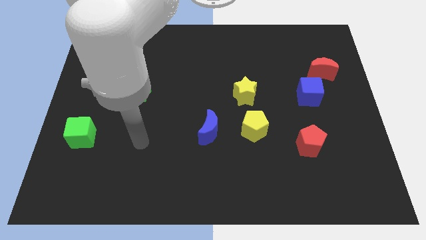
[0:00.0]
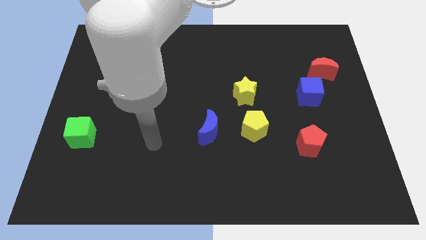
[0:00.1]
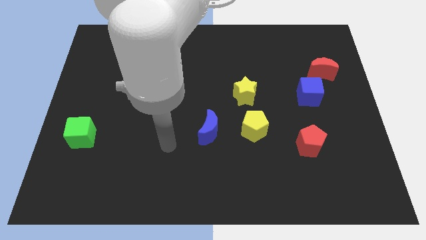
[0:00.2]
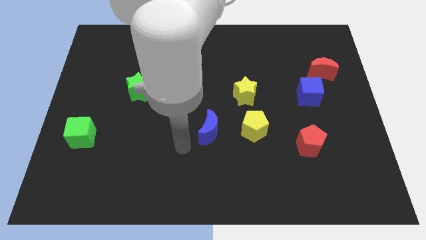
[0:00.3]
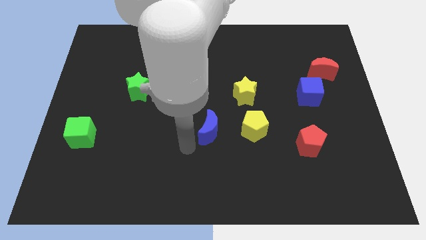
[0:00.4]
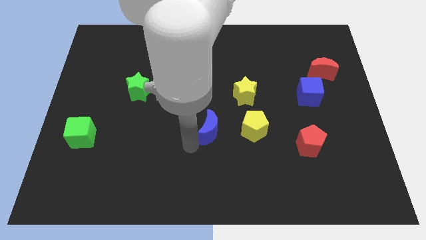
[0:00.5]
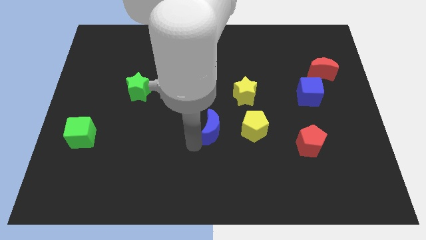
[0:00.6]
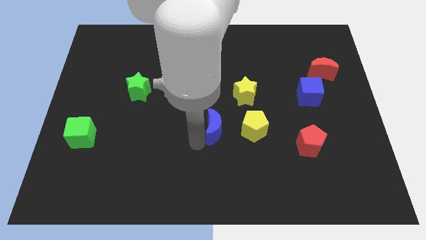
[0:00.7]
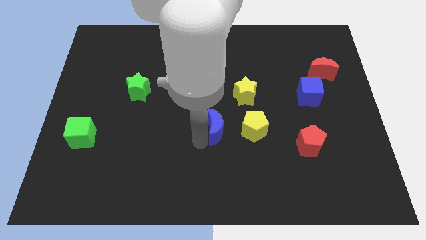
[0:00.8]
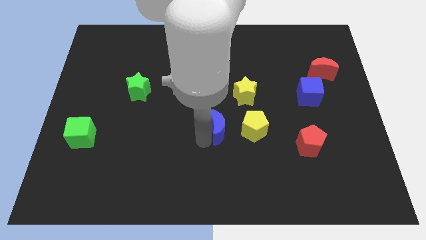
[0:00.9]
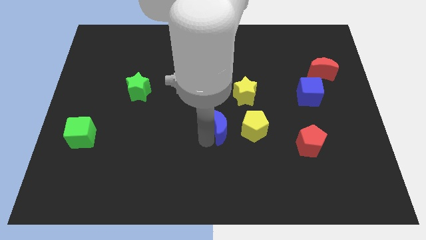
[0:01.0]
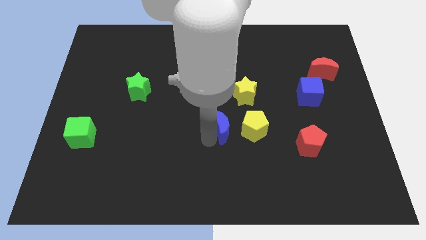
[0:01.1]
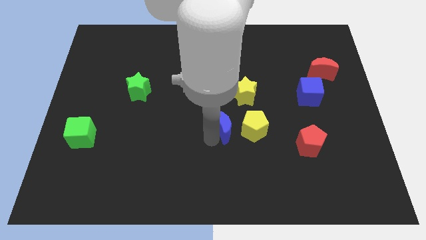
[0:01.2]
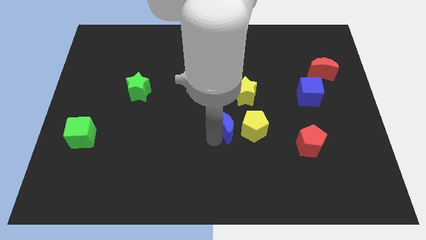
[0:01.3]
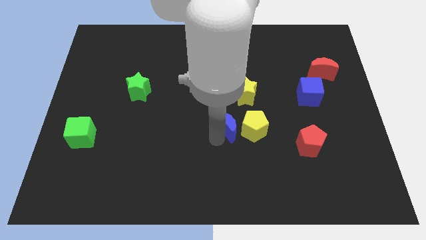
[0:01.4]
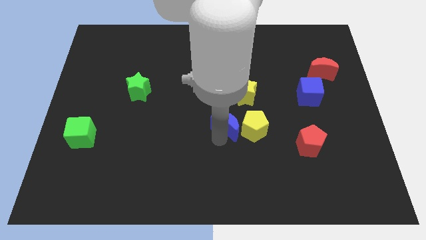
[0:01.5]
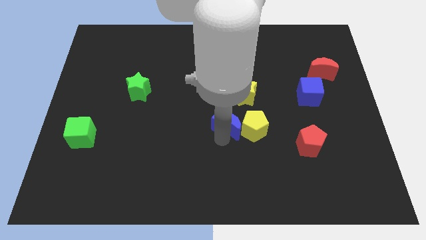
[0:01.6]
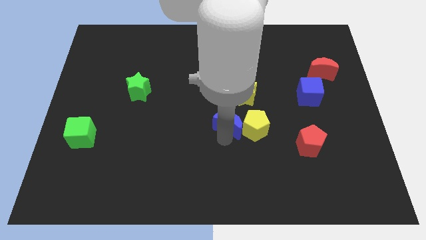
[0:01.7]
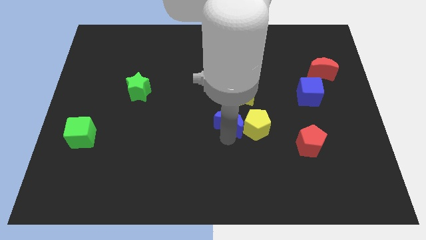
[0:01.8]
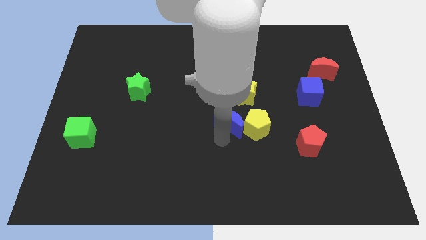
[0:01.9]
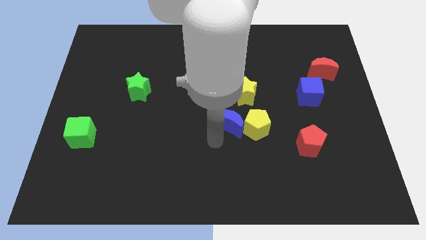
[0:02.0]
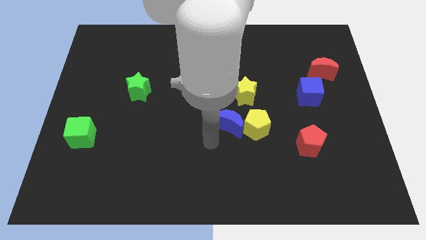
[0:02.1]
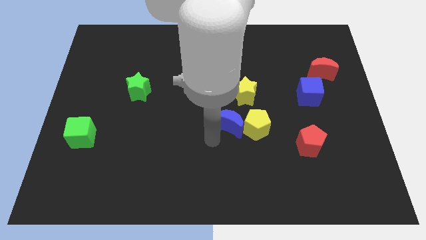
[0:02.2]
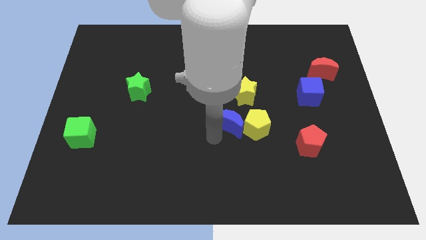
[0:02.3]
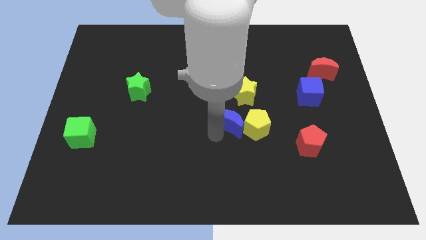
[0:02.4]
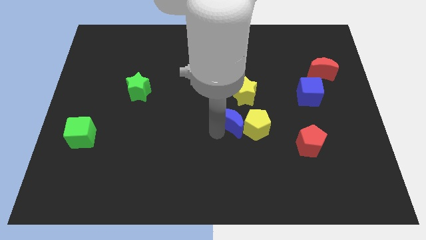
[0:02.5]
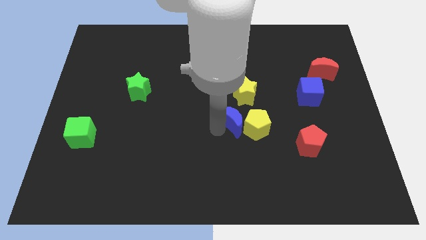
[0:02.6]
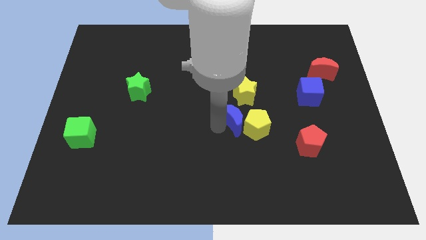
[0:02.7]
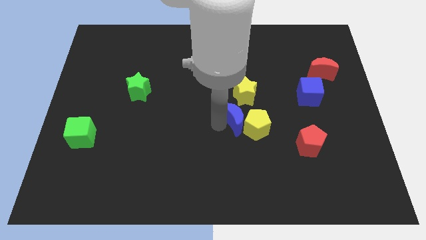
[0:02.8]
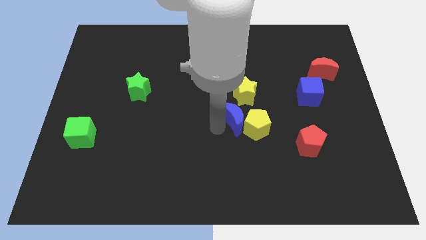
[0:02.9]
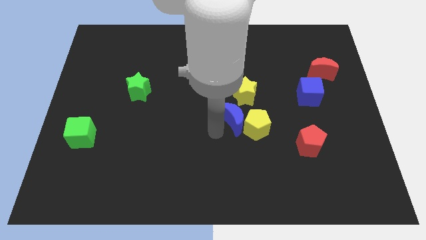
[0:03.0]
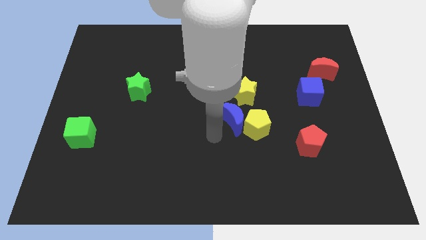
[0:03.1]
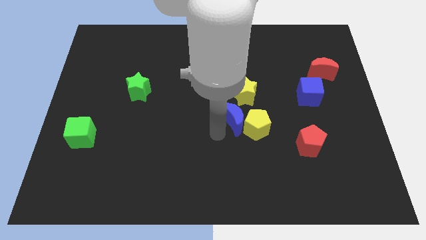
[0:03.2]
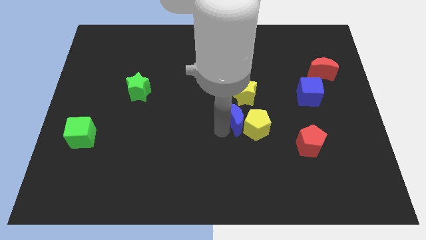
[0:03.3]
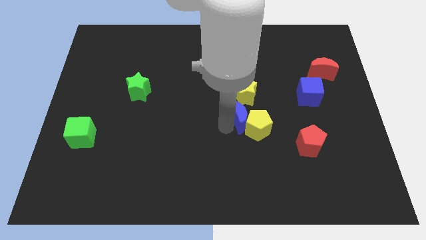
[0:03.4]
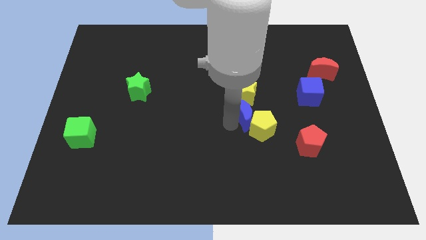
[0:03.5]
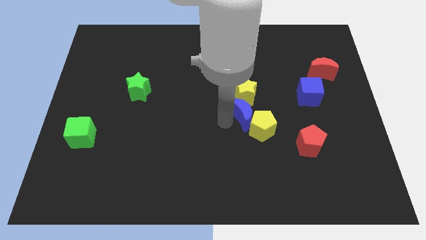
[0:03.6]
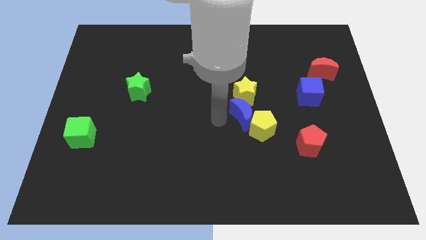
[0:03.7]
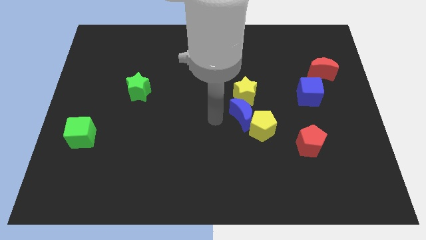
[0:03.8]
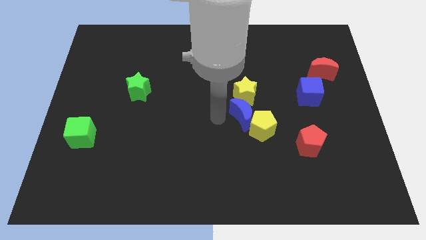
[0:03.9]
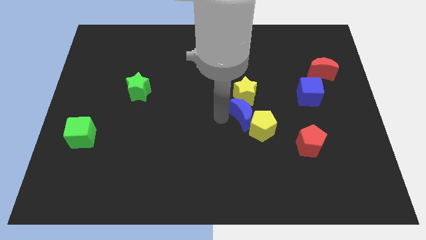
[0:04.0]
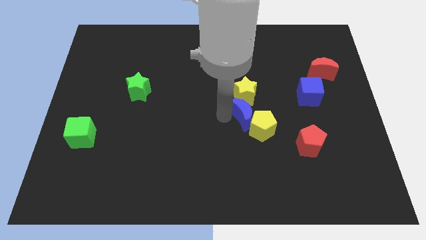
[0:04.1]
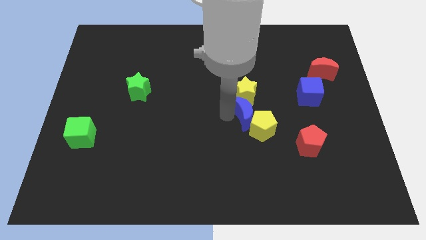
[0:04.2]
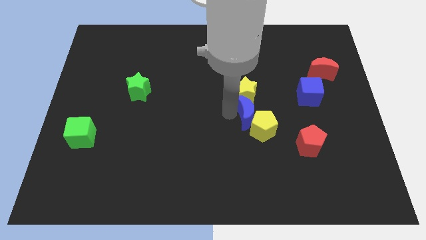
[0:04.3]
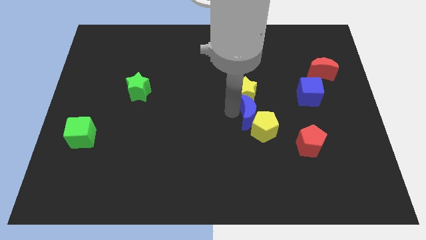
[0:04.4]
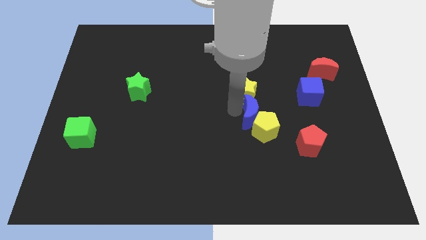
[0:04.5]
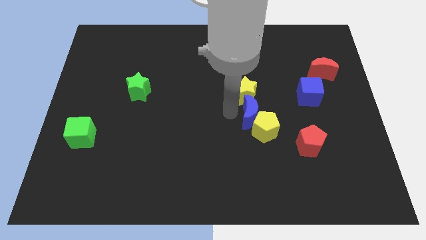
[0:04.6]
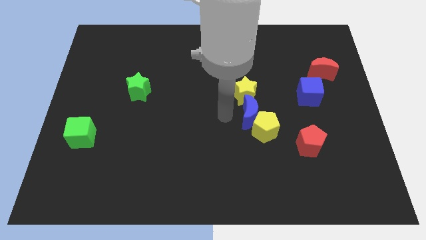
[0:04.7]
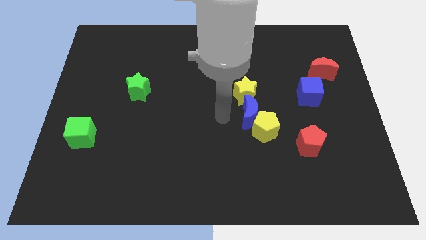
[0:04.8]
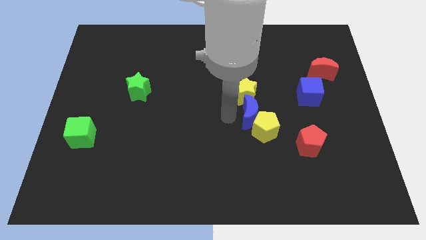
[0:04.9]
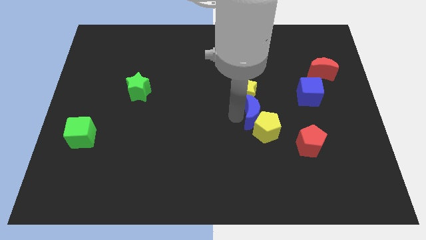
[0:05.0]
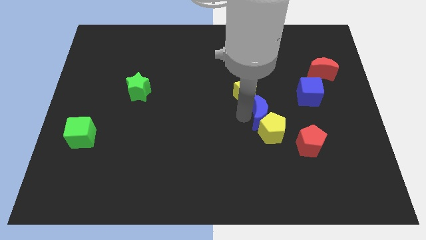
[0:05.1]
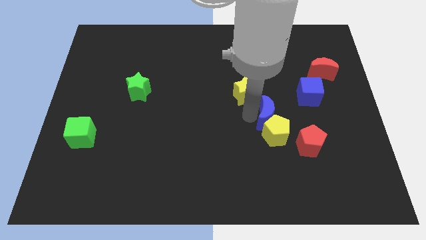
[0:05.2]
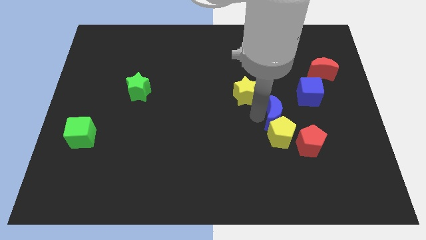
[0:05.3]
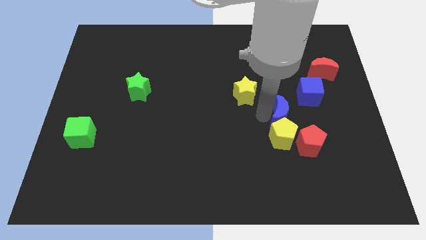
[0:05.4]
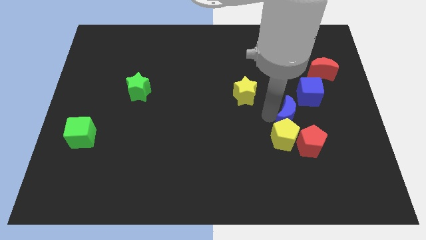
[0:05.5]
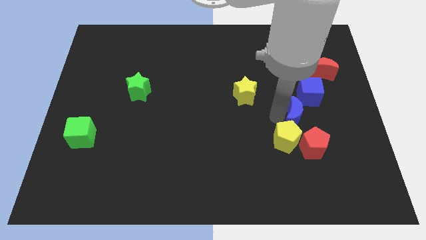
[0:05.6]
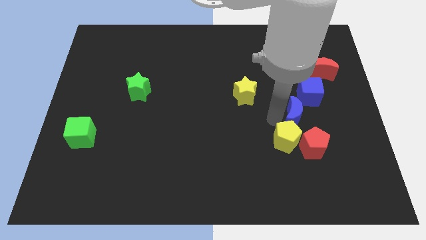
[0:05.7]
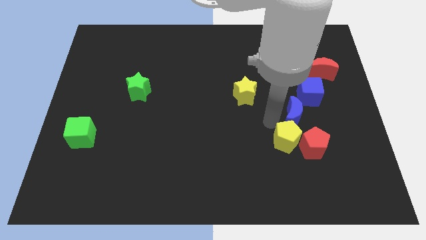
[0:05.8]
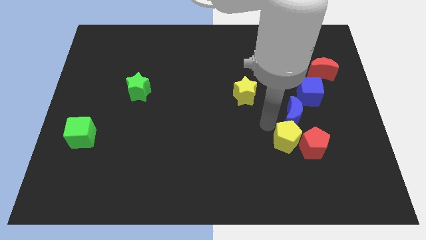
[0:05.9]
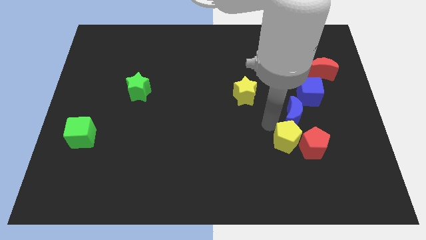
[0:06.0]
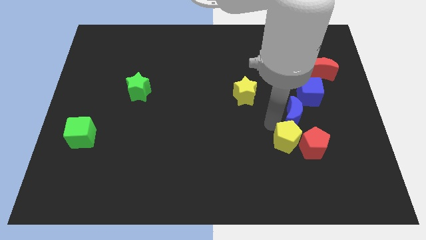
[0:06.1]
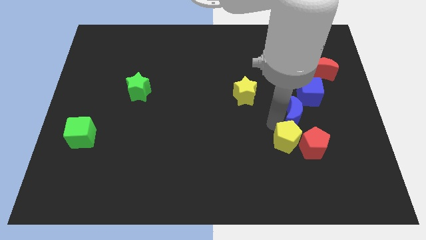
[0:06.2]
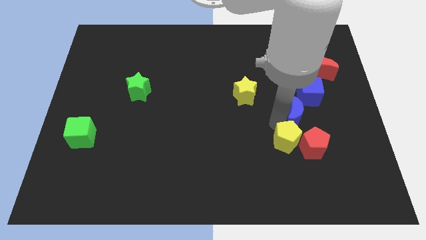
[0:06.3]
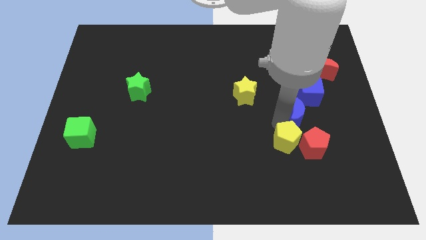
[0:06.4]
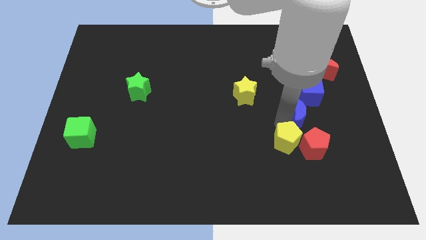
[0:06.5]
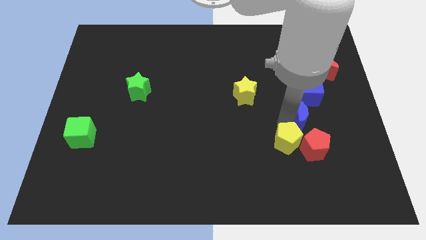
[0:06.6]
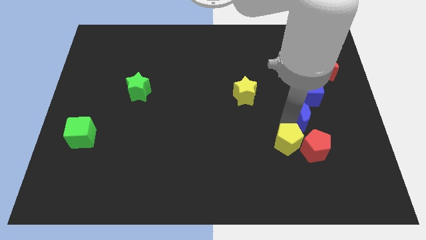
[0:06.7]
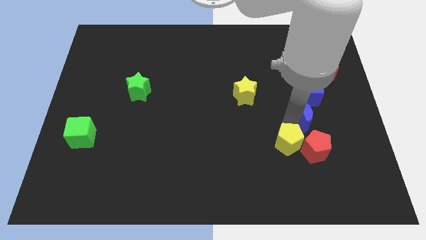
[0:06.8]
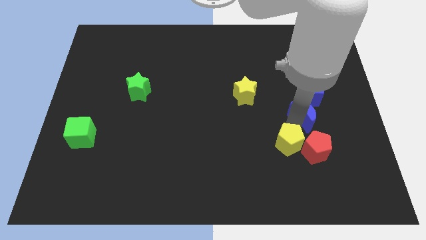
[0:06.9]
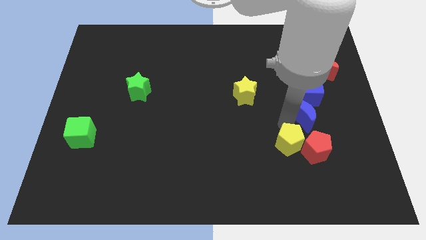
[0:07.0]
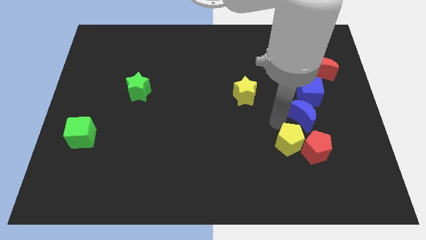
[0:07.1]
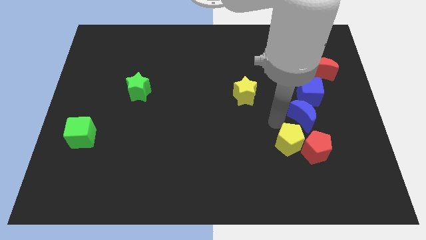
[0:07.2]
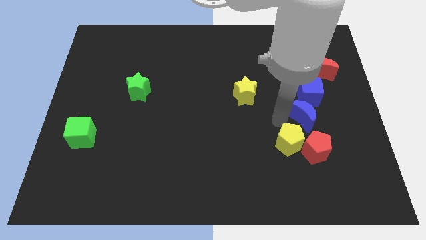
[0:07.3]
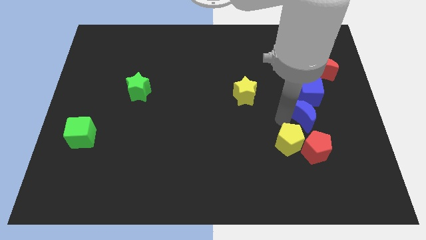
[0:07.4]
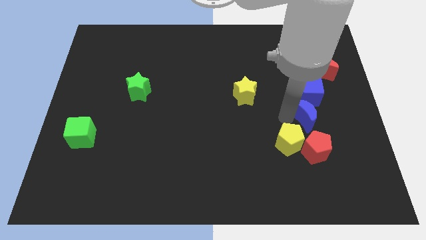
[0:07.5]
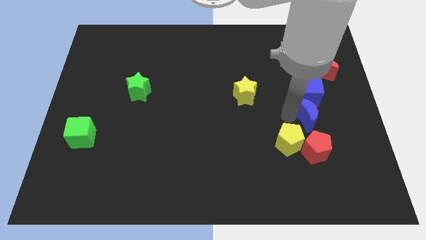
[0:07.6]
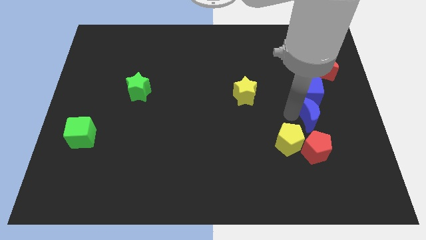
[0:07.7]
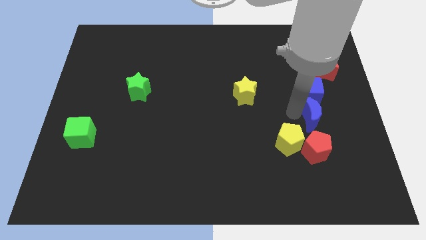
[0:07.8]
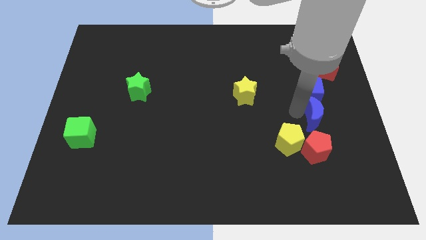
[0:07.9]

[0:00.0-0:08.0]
slide the blue moon diagonally down and to the right of the blue cube
